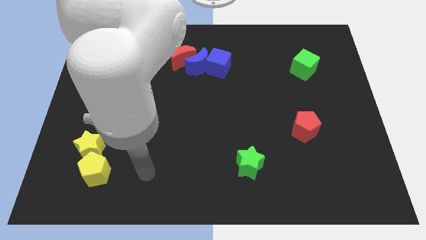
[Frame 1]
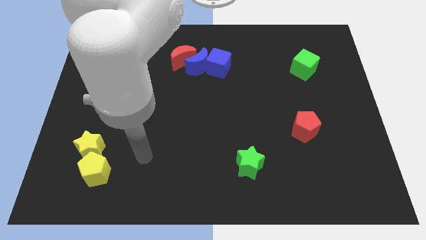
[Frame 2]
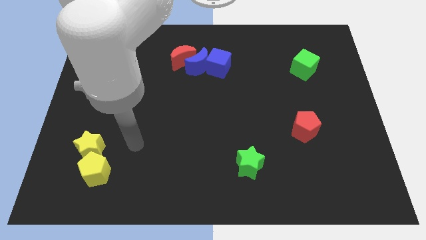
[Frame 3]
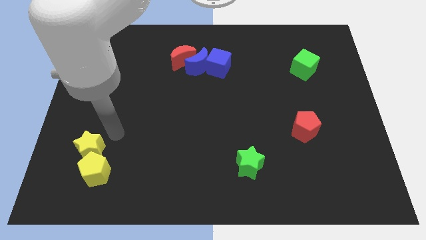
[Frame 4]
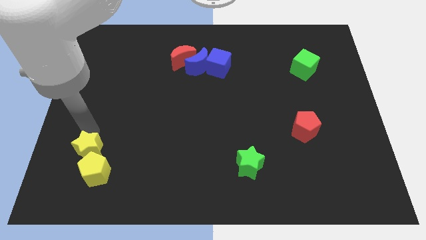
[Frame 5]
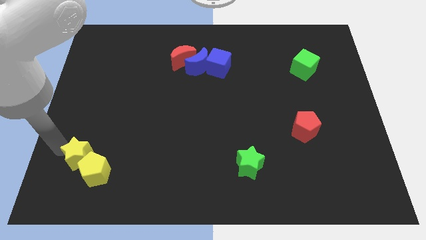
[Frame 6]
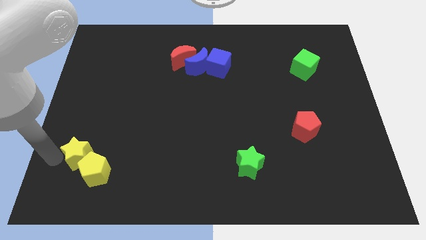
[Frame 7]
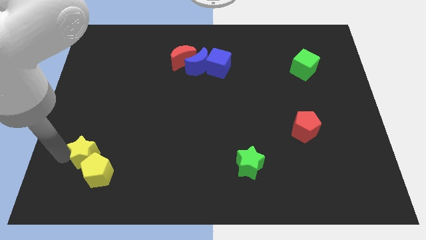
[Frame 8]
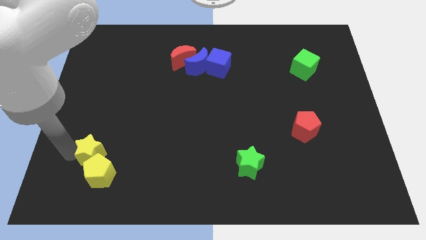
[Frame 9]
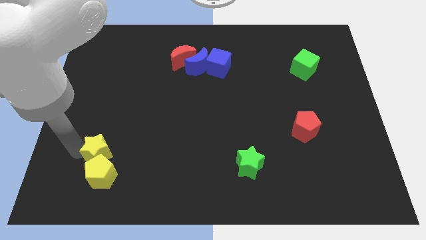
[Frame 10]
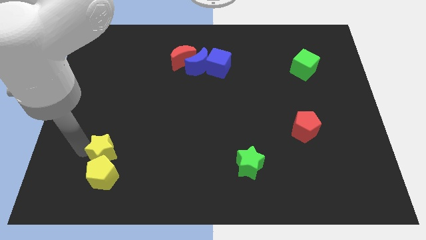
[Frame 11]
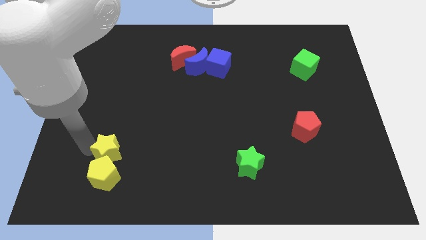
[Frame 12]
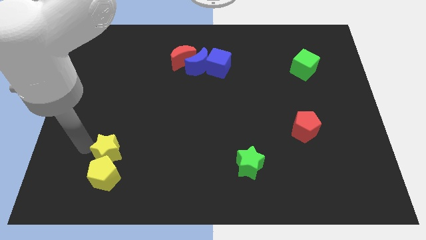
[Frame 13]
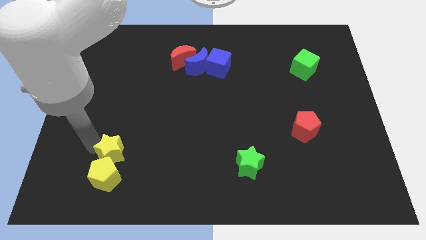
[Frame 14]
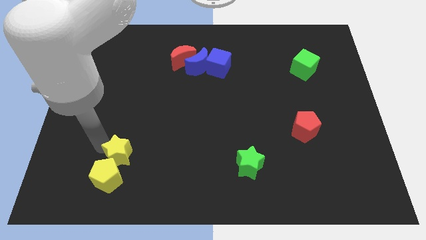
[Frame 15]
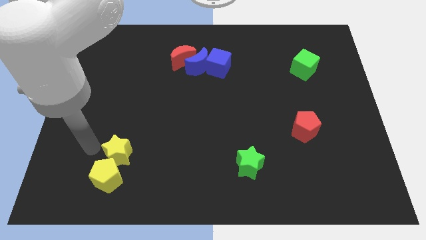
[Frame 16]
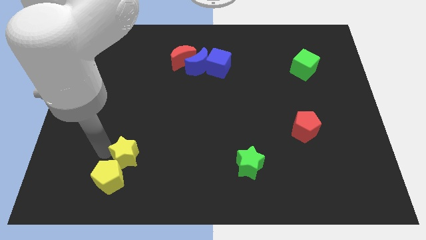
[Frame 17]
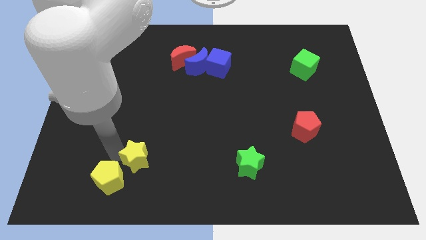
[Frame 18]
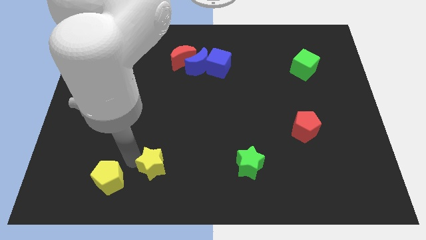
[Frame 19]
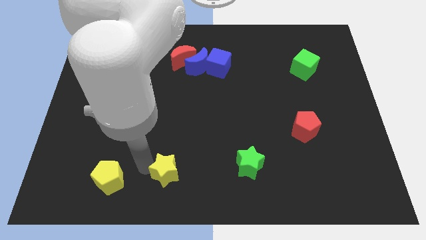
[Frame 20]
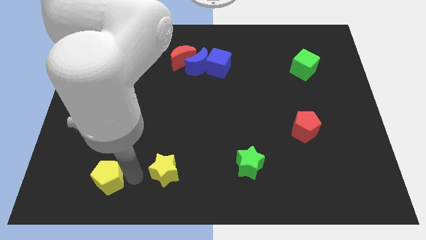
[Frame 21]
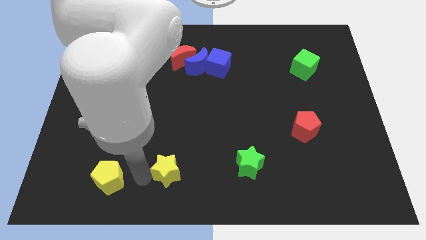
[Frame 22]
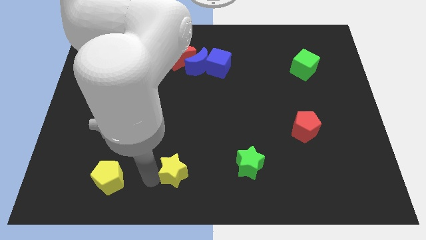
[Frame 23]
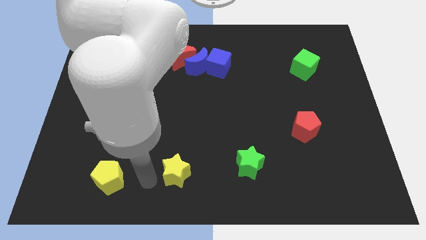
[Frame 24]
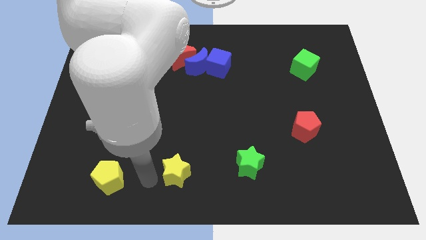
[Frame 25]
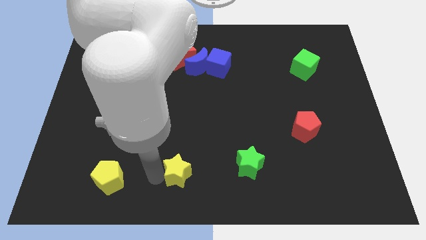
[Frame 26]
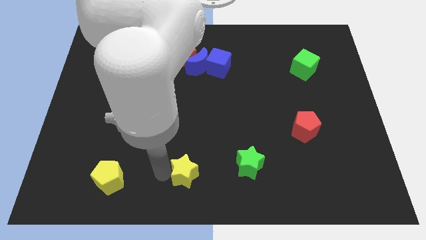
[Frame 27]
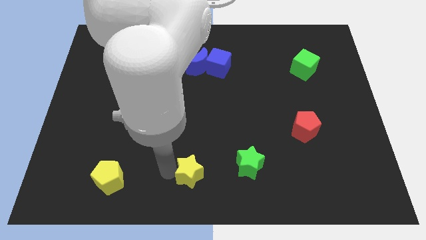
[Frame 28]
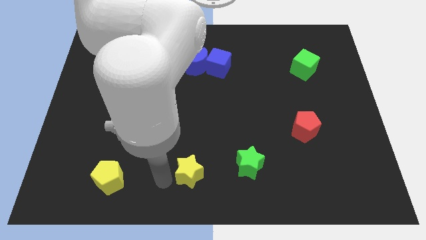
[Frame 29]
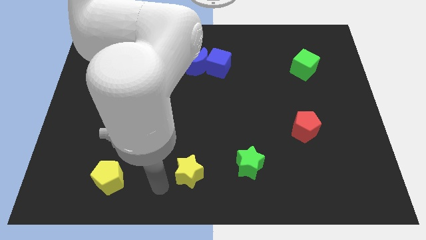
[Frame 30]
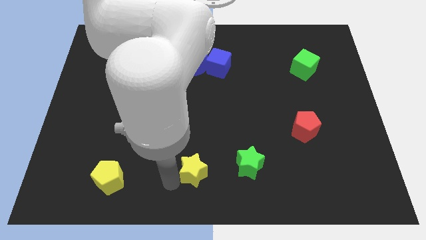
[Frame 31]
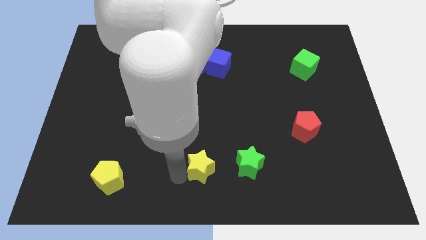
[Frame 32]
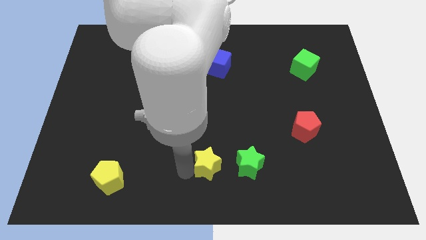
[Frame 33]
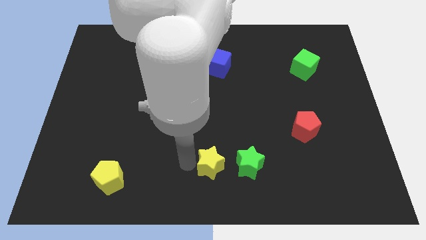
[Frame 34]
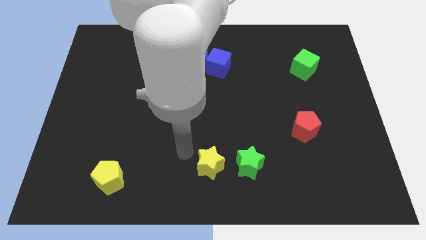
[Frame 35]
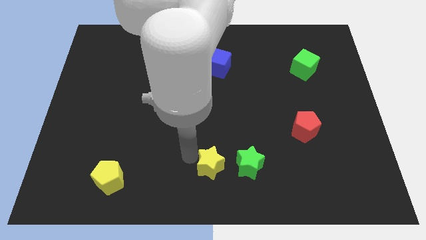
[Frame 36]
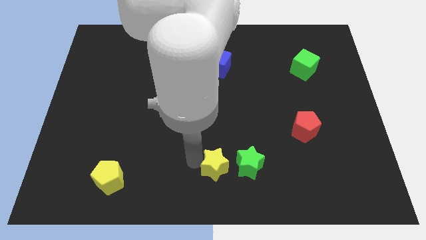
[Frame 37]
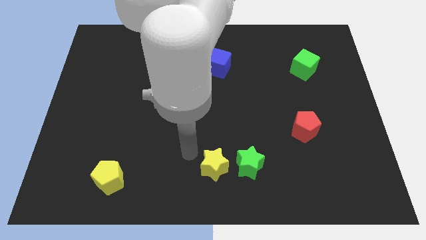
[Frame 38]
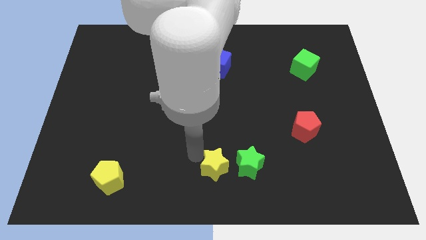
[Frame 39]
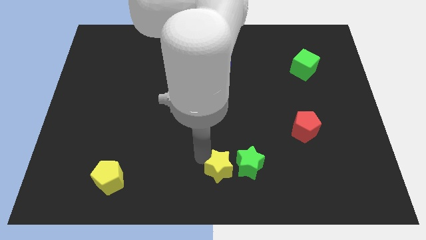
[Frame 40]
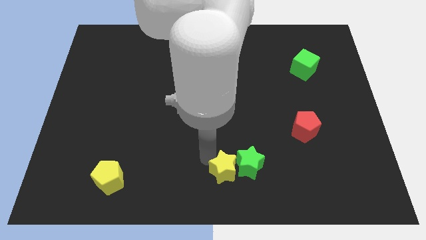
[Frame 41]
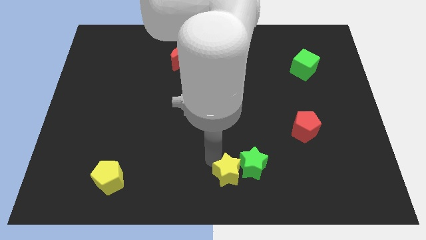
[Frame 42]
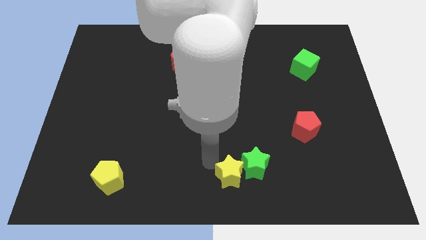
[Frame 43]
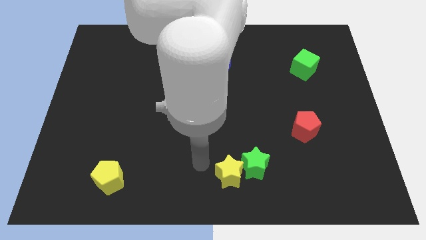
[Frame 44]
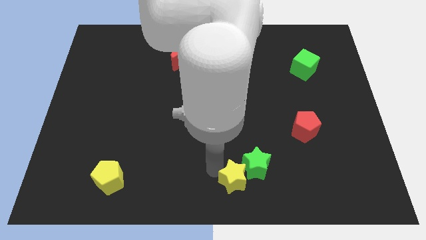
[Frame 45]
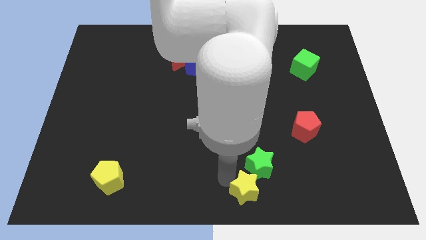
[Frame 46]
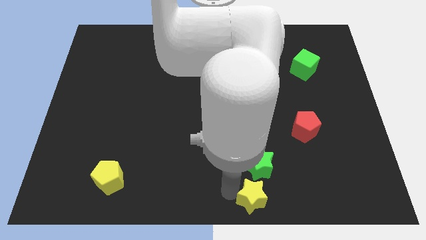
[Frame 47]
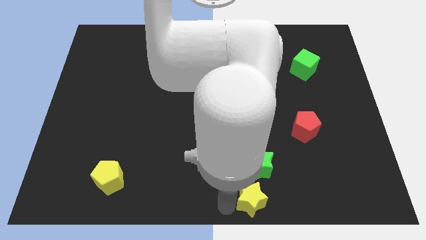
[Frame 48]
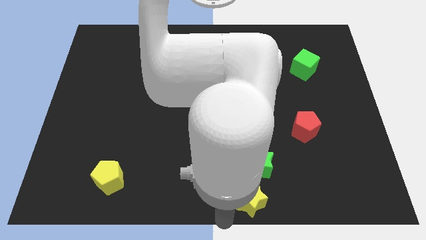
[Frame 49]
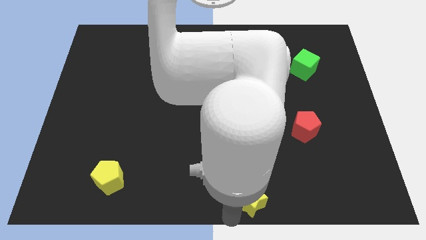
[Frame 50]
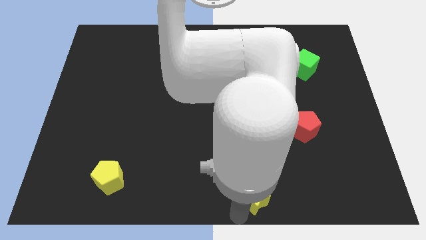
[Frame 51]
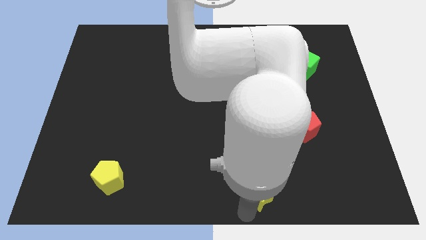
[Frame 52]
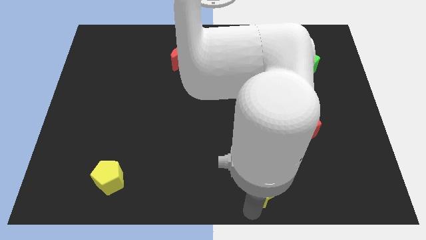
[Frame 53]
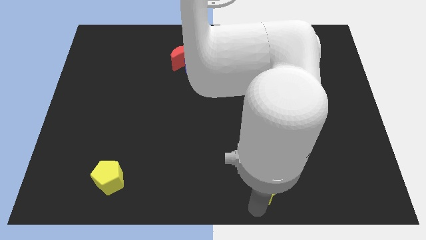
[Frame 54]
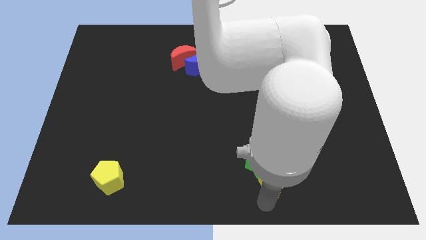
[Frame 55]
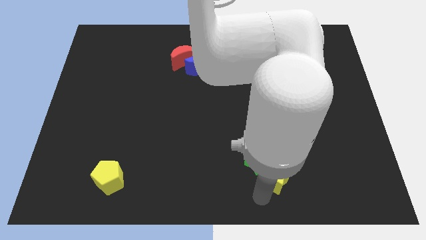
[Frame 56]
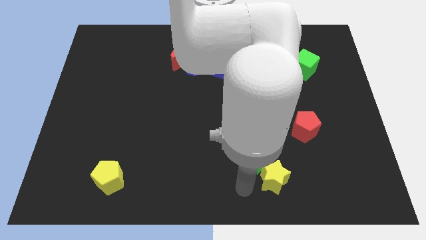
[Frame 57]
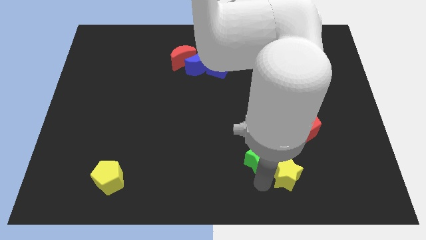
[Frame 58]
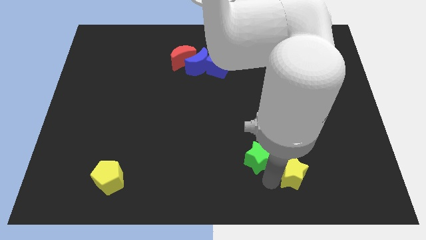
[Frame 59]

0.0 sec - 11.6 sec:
slide the yellow star to the bottom of the red pentagon

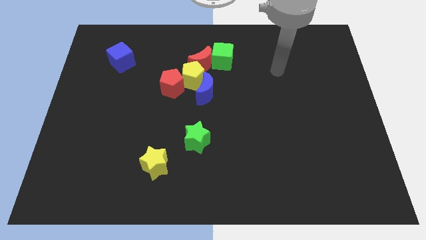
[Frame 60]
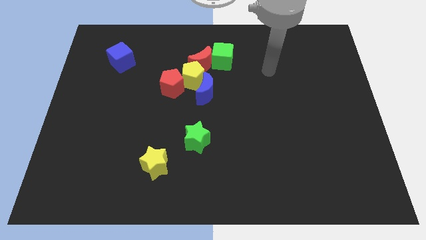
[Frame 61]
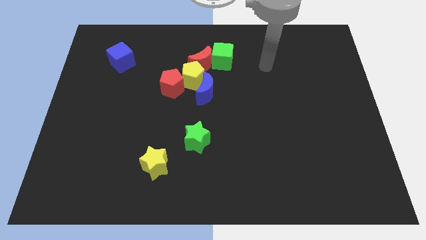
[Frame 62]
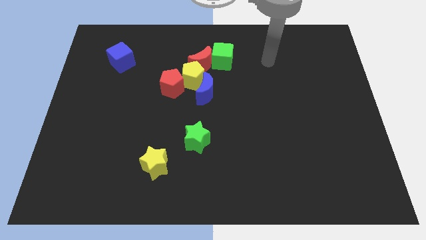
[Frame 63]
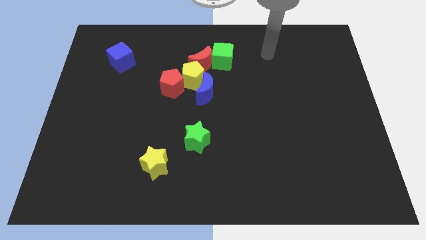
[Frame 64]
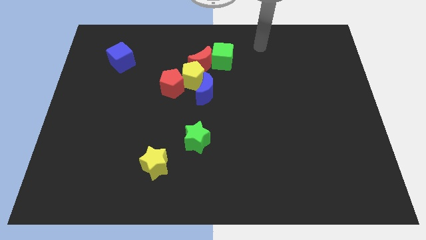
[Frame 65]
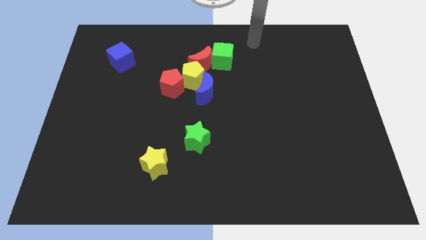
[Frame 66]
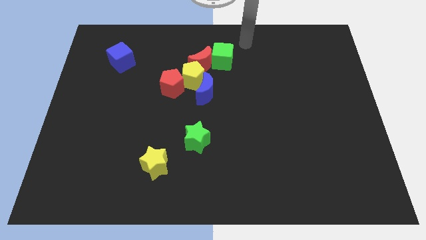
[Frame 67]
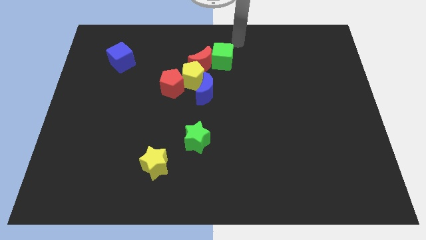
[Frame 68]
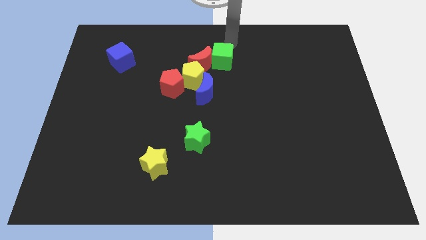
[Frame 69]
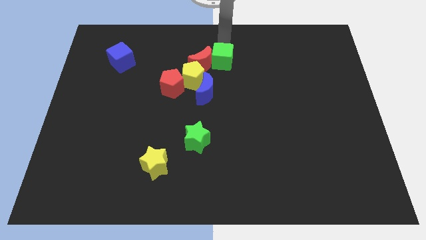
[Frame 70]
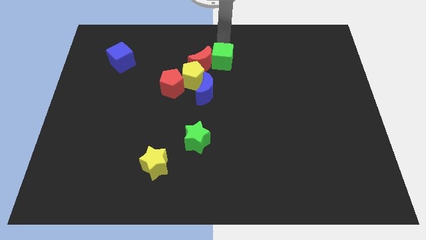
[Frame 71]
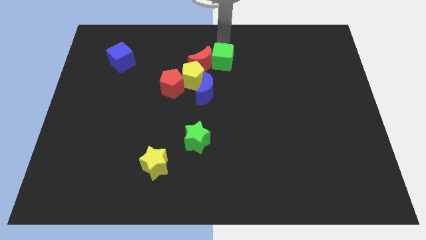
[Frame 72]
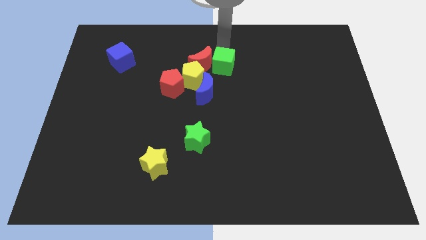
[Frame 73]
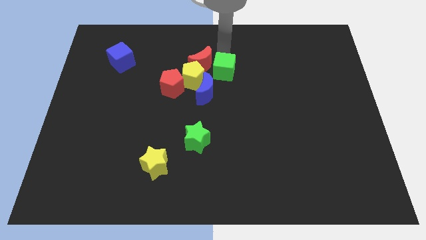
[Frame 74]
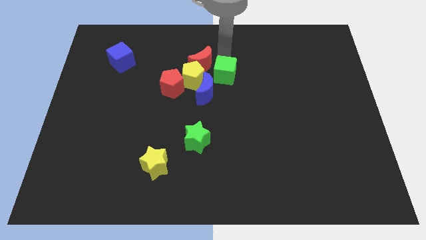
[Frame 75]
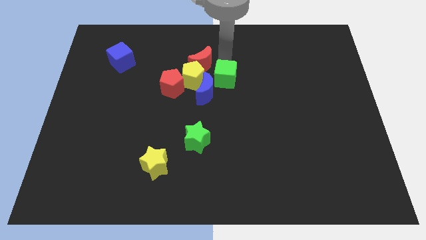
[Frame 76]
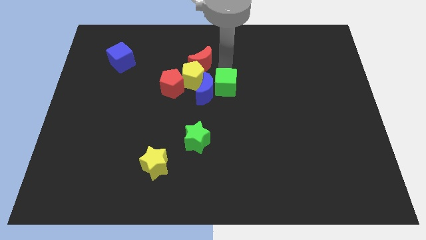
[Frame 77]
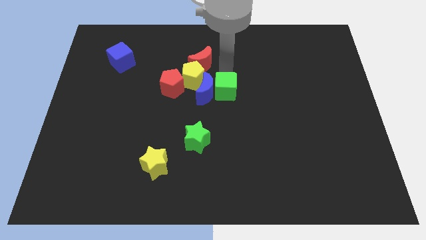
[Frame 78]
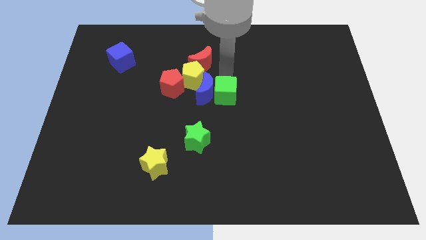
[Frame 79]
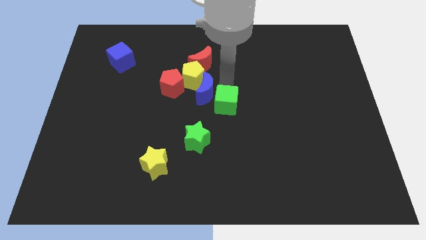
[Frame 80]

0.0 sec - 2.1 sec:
slide the green cube to the top right of the green star

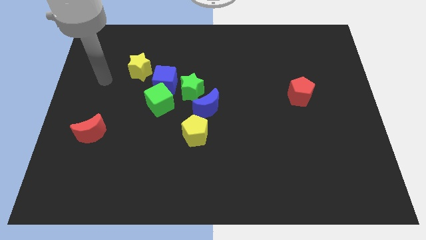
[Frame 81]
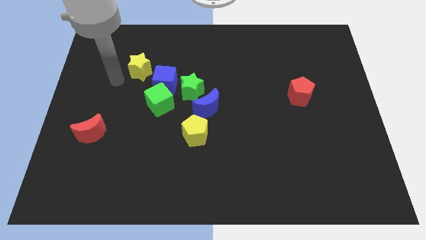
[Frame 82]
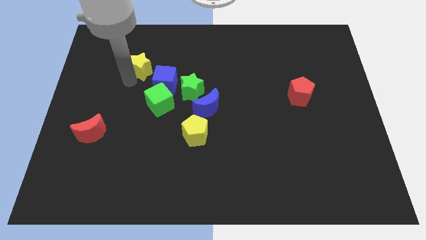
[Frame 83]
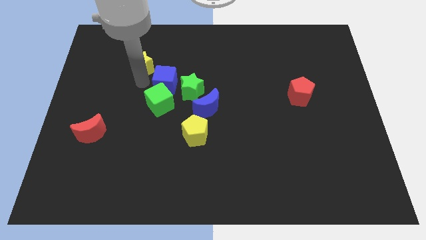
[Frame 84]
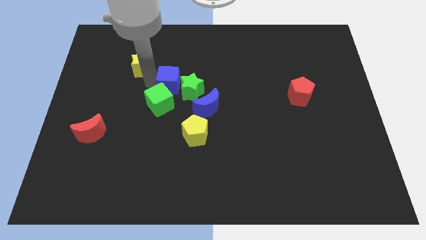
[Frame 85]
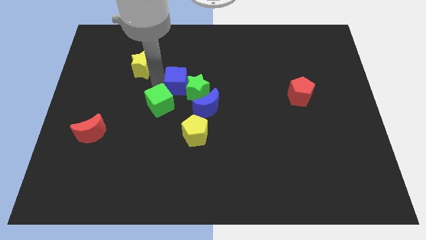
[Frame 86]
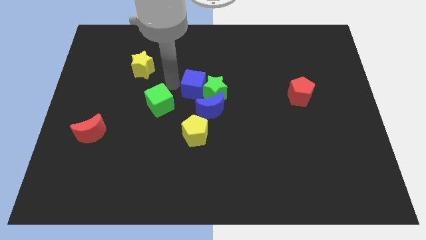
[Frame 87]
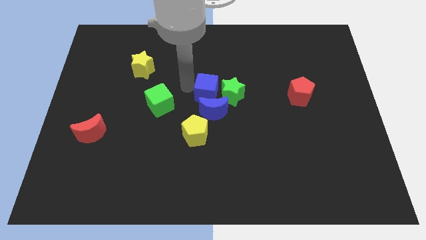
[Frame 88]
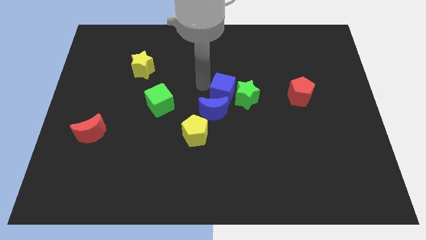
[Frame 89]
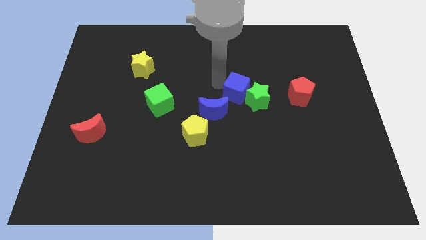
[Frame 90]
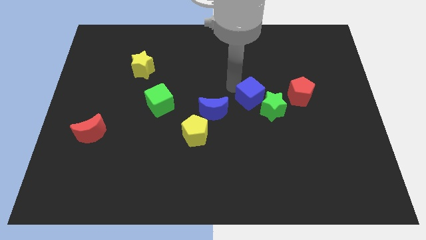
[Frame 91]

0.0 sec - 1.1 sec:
push the green star diagonally down and to the left of the red pentagon
